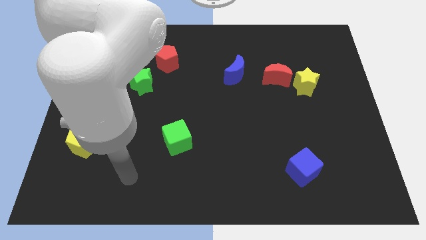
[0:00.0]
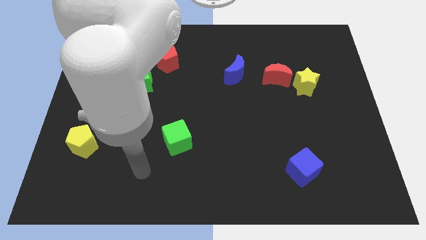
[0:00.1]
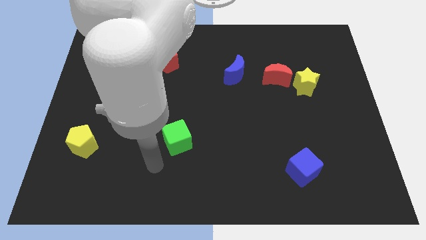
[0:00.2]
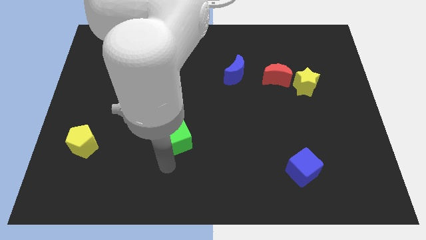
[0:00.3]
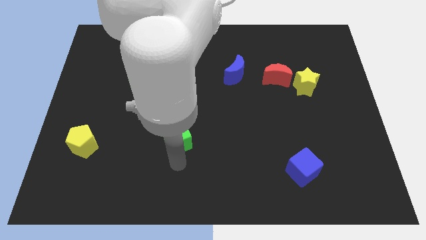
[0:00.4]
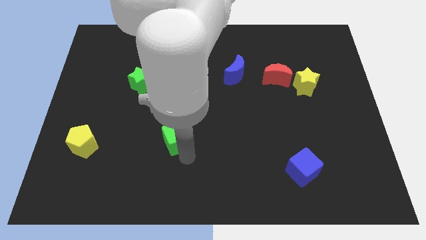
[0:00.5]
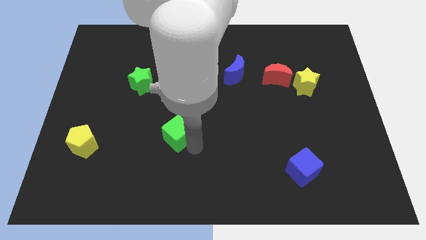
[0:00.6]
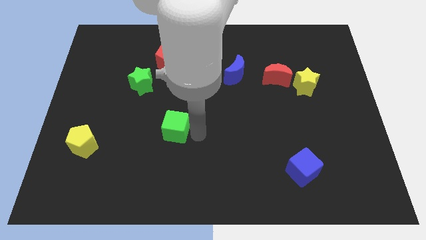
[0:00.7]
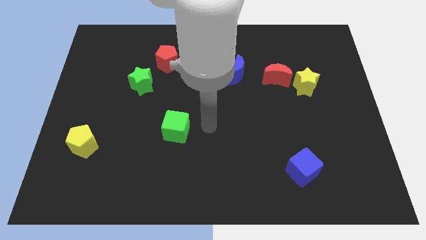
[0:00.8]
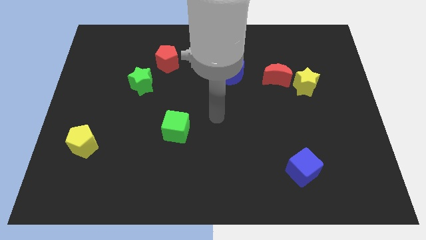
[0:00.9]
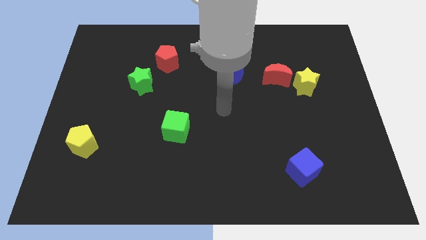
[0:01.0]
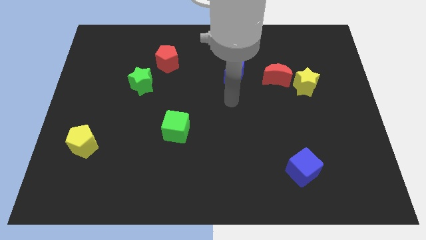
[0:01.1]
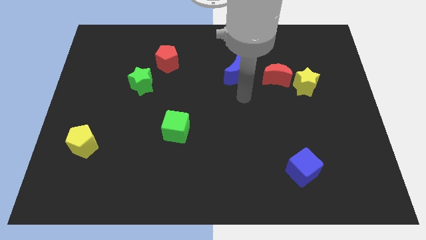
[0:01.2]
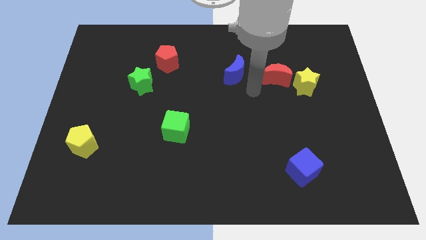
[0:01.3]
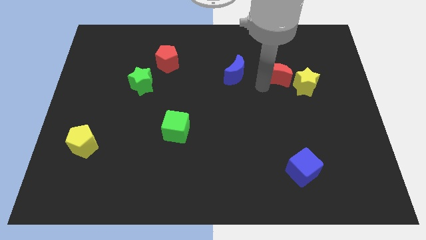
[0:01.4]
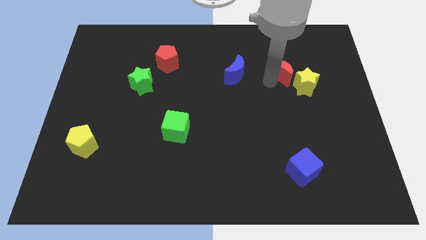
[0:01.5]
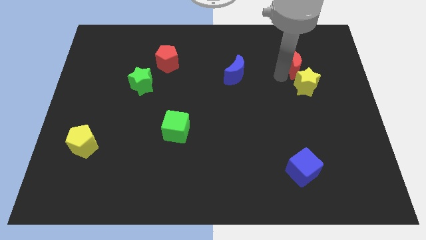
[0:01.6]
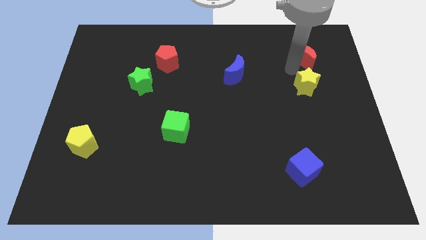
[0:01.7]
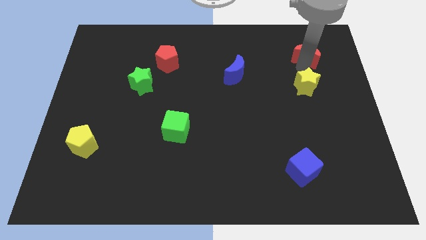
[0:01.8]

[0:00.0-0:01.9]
pull the yellow star apart from the red moon

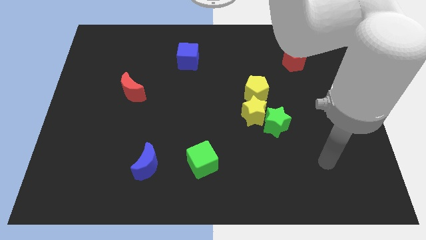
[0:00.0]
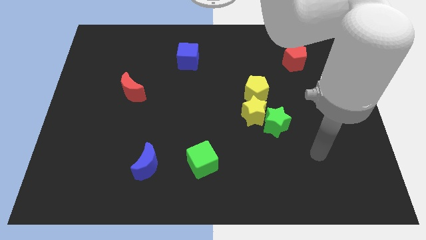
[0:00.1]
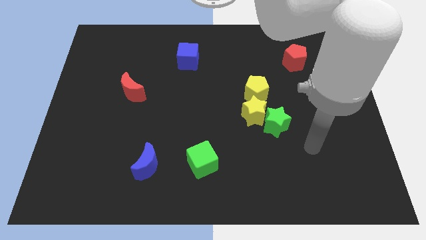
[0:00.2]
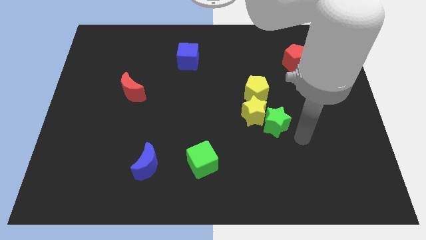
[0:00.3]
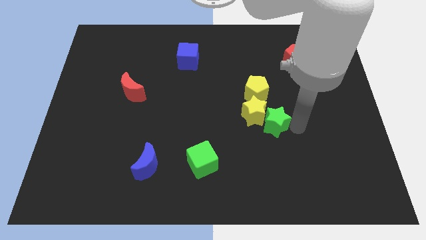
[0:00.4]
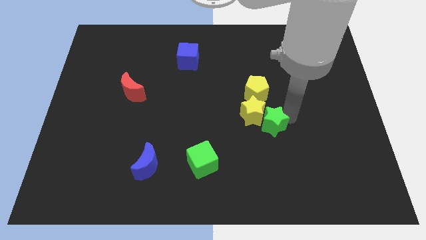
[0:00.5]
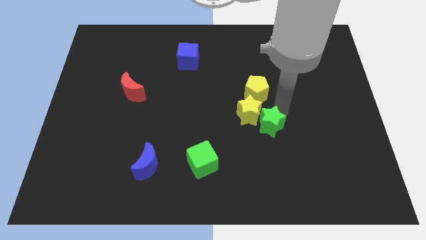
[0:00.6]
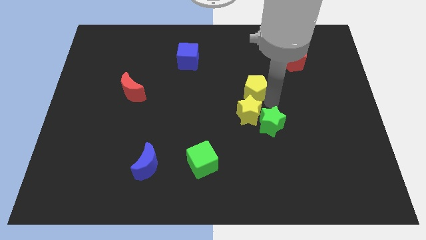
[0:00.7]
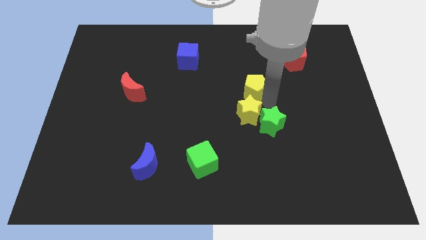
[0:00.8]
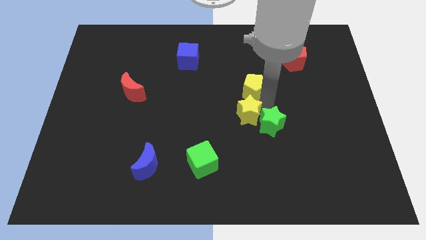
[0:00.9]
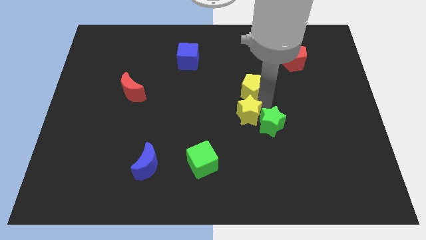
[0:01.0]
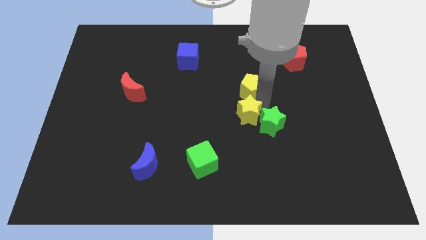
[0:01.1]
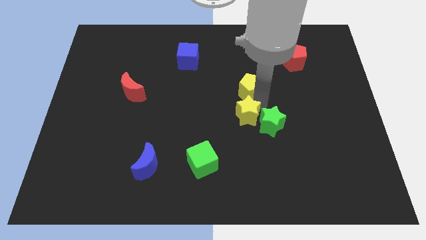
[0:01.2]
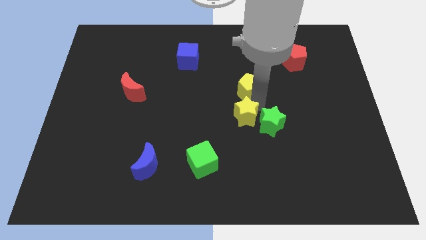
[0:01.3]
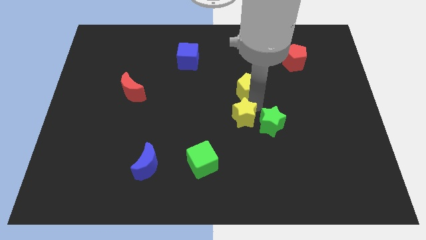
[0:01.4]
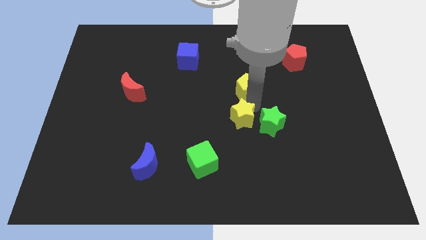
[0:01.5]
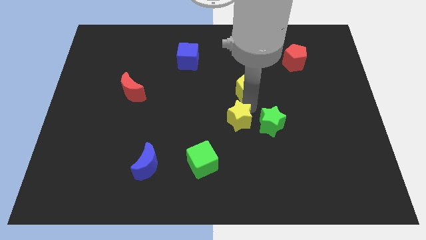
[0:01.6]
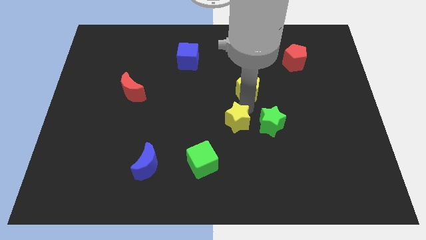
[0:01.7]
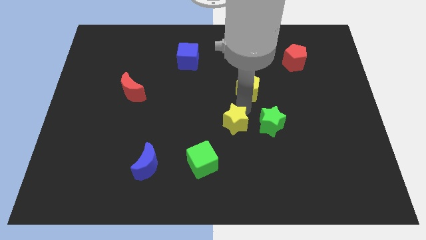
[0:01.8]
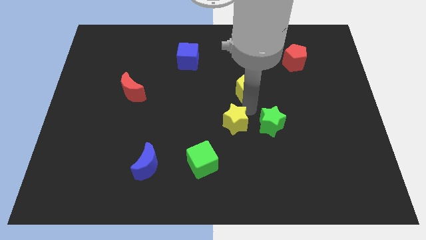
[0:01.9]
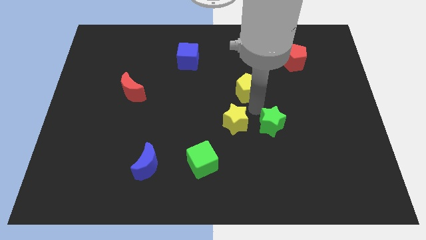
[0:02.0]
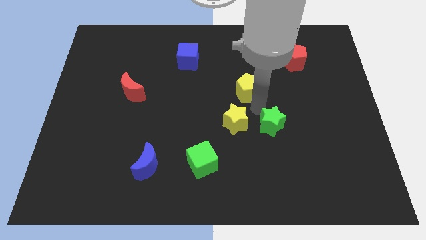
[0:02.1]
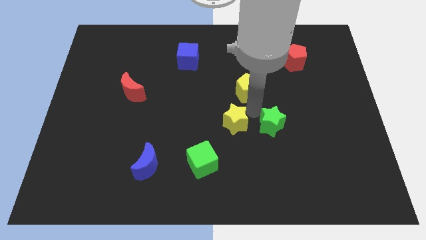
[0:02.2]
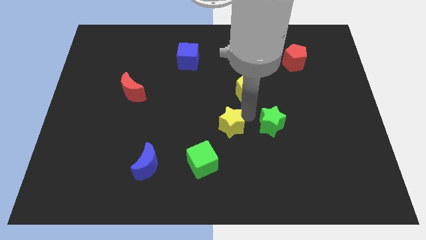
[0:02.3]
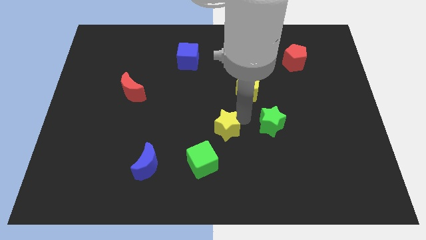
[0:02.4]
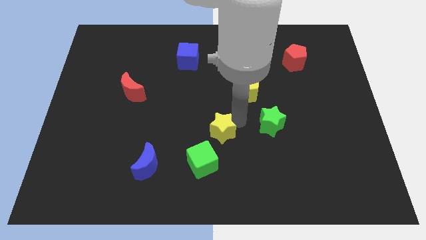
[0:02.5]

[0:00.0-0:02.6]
separate the yellow star from the green star and yellow pentagon

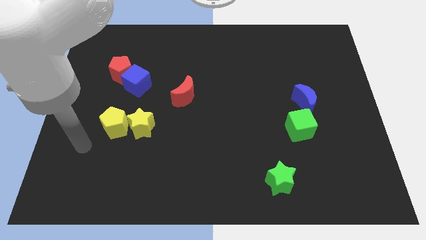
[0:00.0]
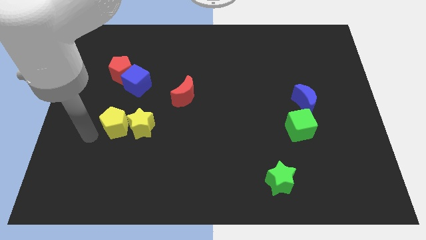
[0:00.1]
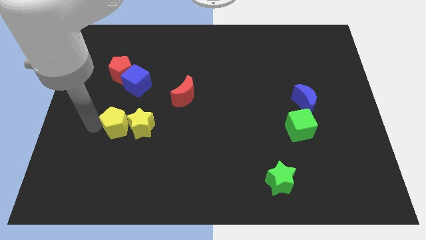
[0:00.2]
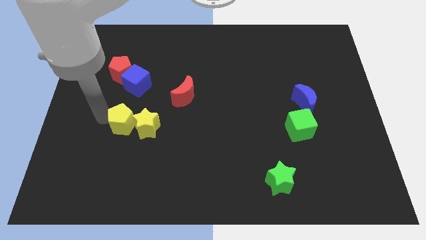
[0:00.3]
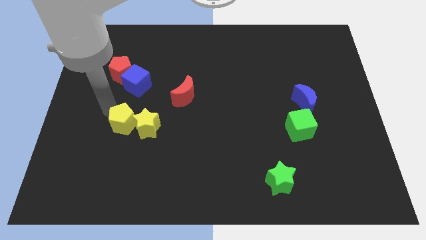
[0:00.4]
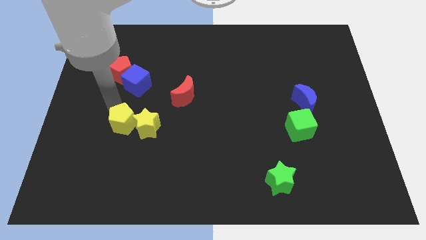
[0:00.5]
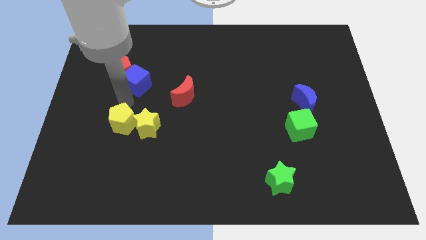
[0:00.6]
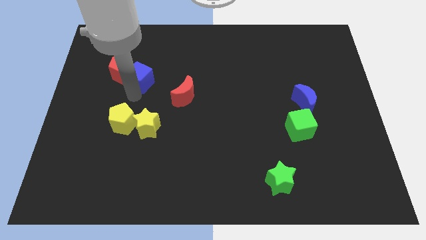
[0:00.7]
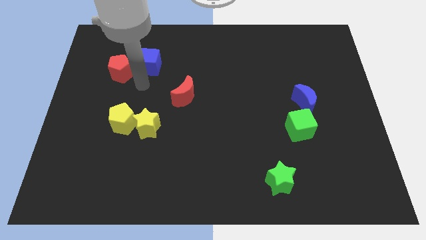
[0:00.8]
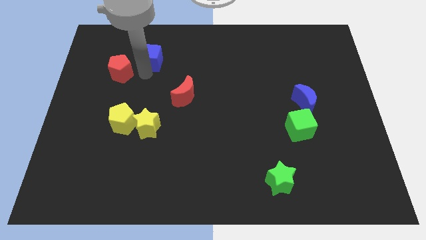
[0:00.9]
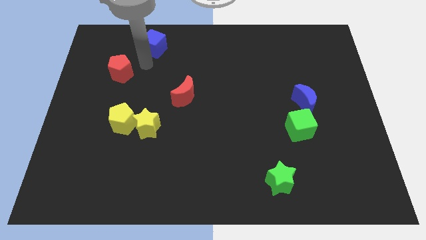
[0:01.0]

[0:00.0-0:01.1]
separate the red pentagon from the blue cube

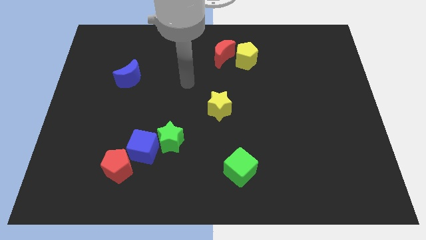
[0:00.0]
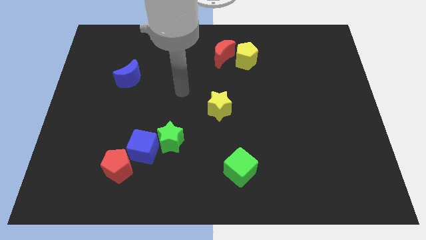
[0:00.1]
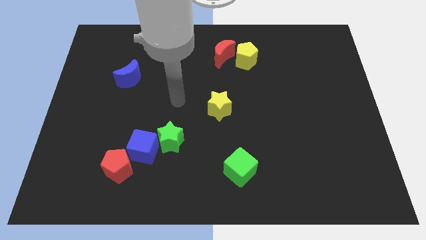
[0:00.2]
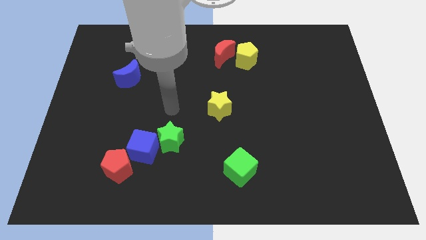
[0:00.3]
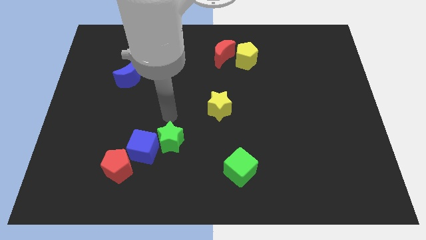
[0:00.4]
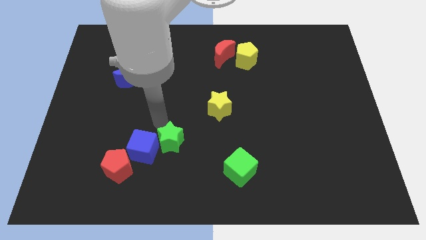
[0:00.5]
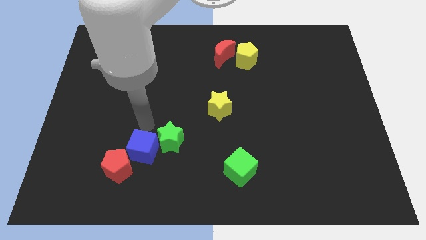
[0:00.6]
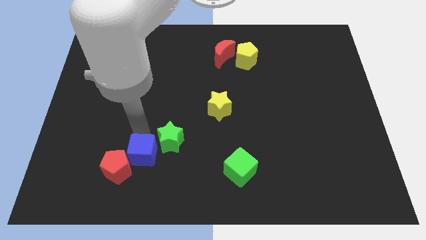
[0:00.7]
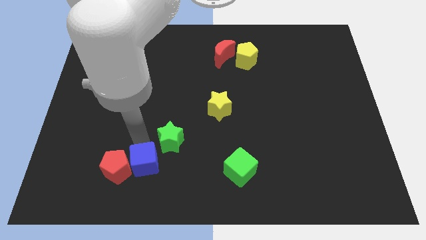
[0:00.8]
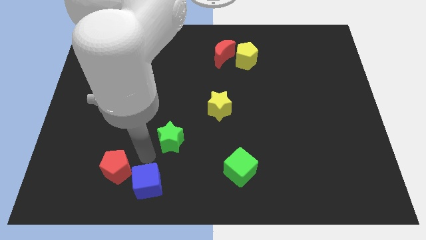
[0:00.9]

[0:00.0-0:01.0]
move the green star away from the blue cube

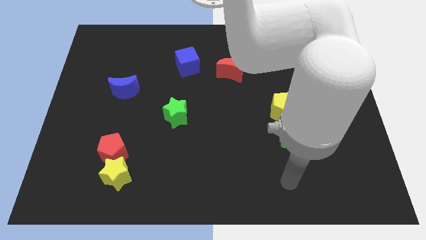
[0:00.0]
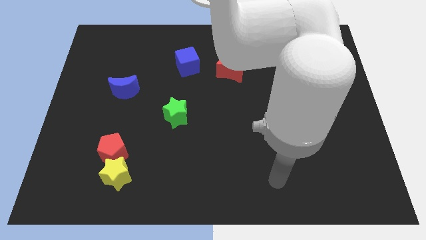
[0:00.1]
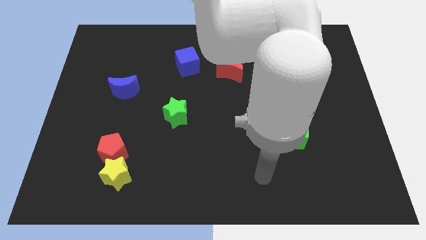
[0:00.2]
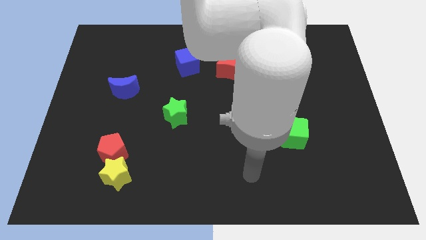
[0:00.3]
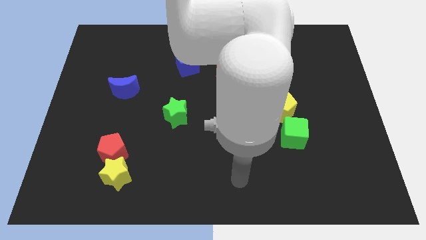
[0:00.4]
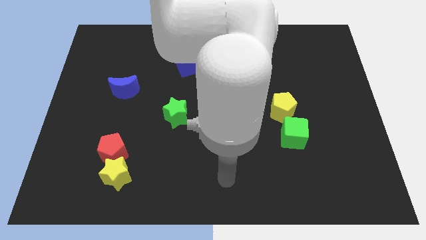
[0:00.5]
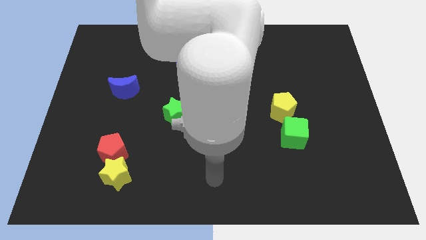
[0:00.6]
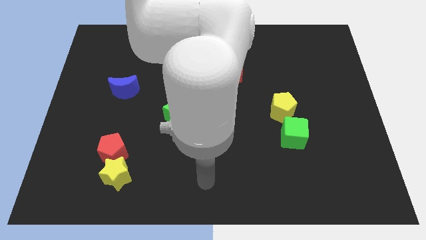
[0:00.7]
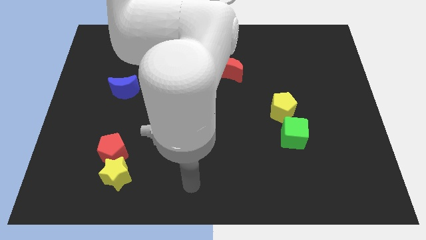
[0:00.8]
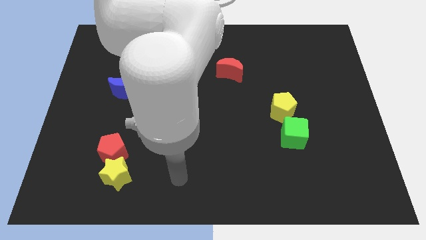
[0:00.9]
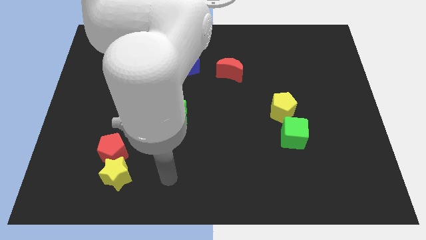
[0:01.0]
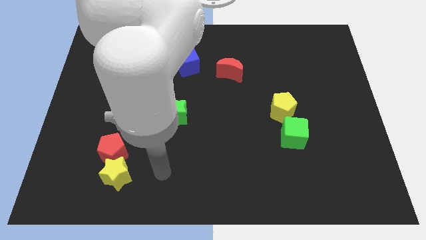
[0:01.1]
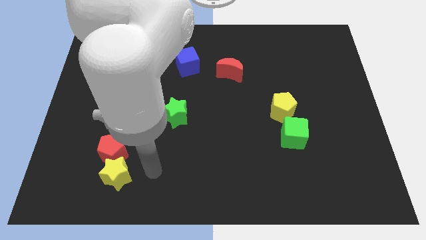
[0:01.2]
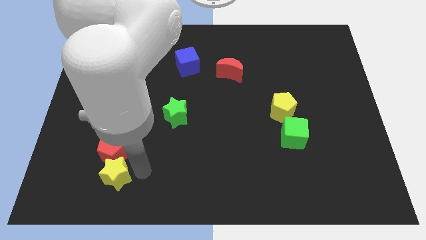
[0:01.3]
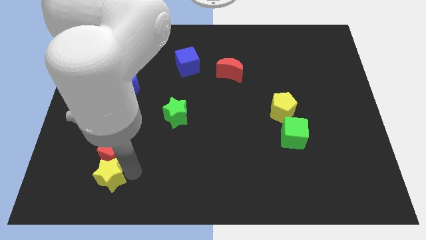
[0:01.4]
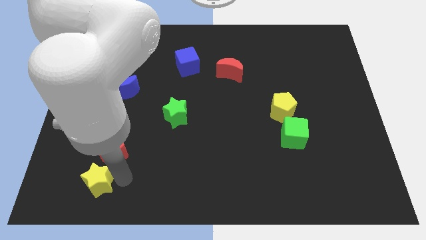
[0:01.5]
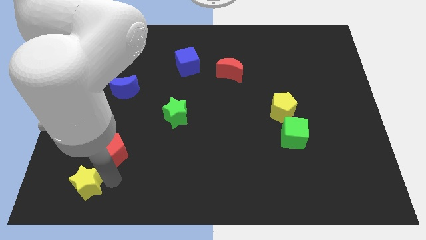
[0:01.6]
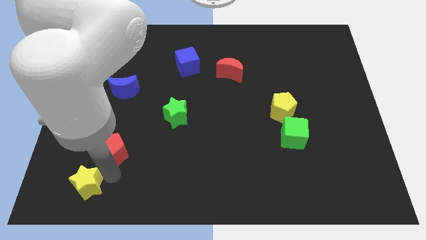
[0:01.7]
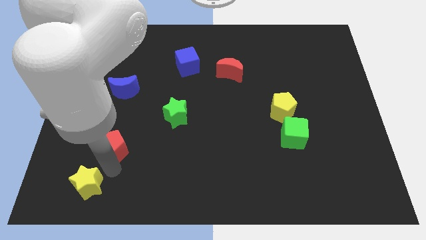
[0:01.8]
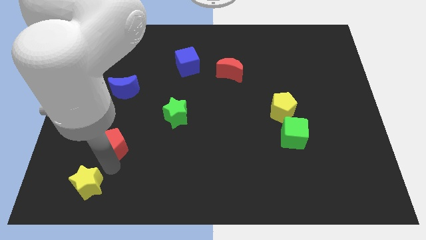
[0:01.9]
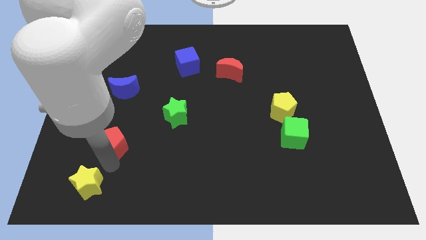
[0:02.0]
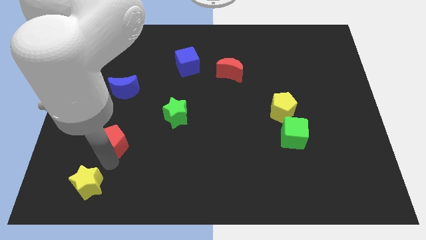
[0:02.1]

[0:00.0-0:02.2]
move the red pentagon away from the yellow star

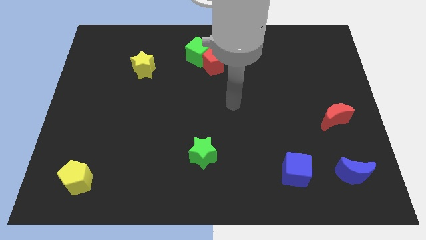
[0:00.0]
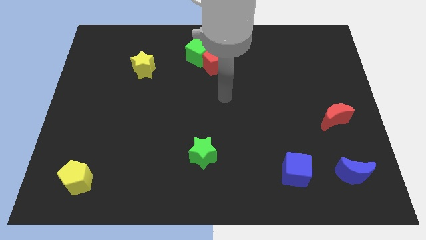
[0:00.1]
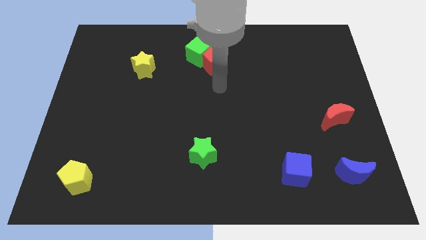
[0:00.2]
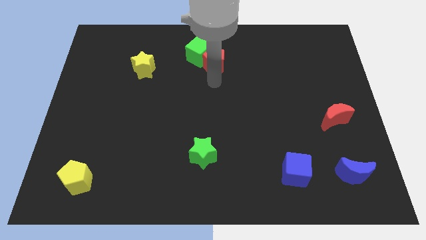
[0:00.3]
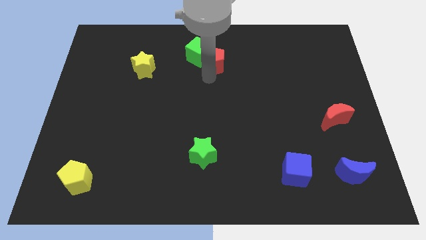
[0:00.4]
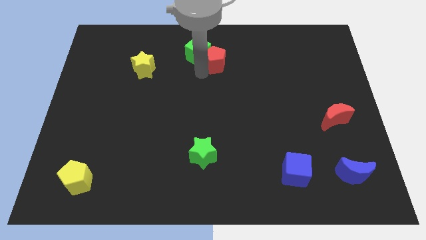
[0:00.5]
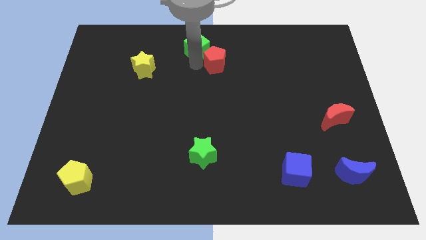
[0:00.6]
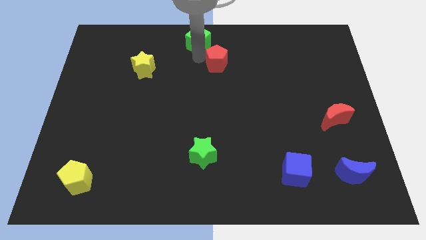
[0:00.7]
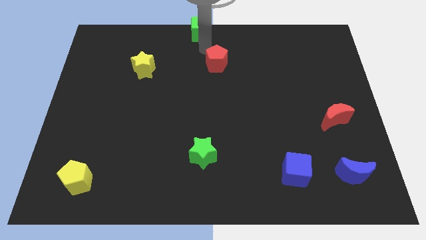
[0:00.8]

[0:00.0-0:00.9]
move the red pentagon away from the green cube
